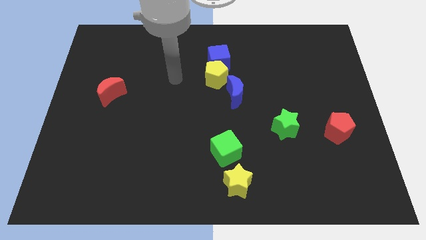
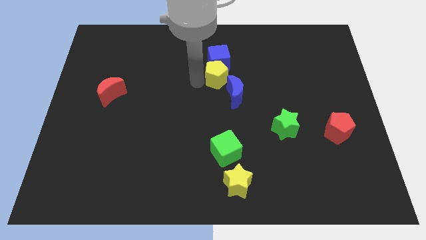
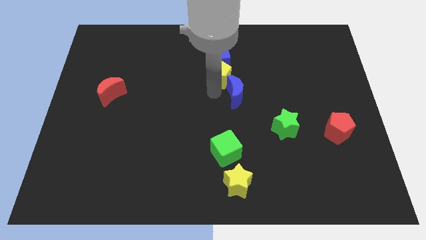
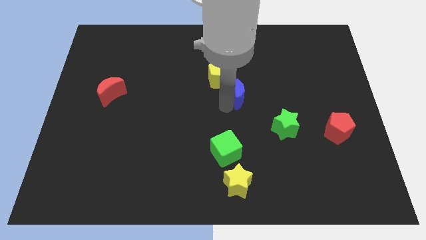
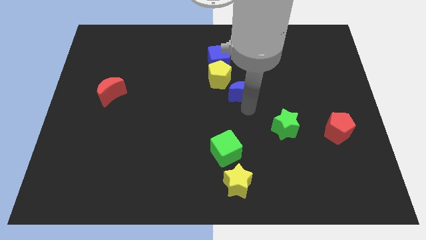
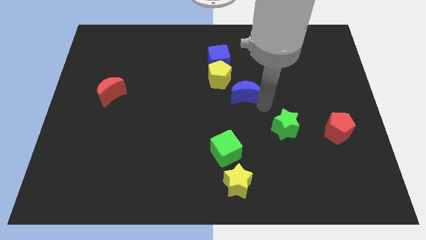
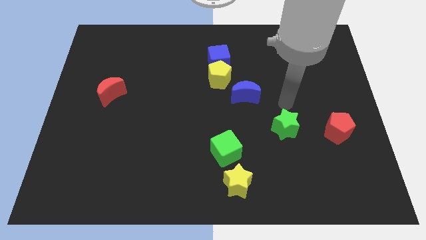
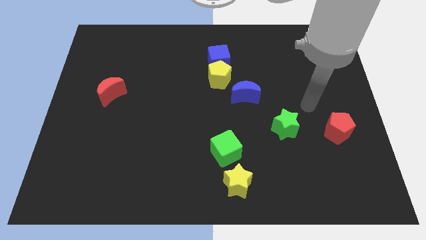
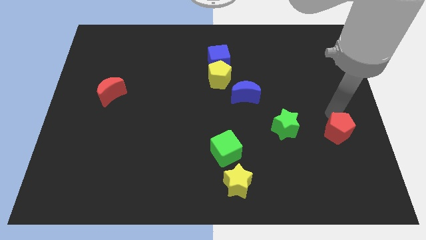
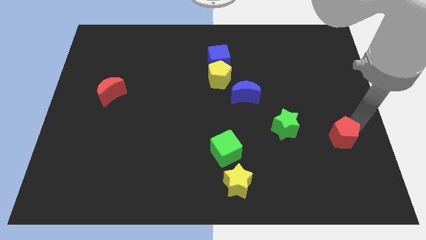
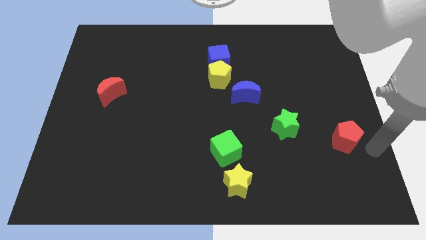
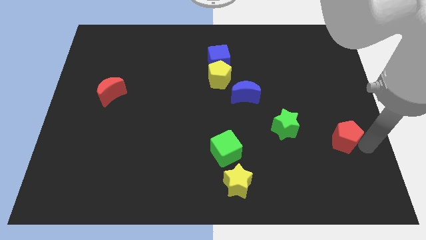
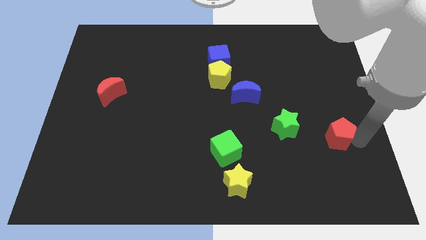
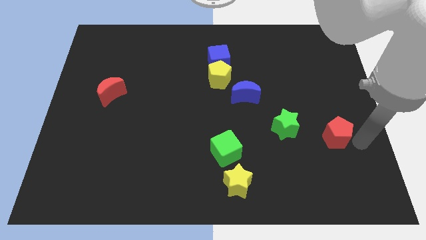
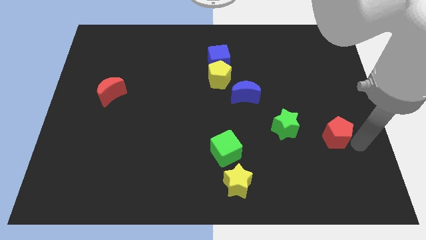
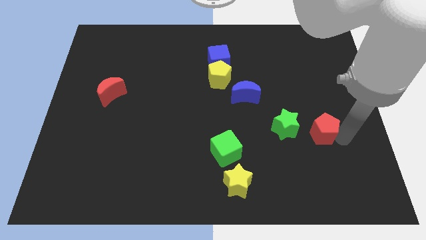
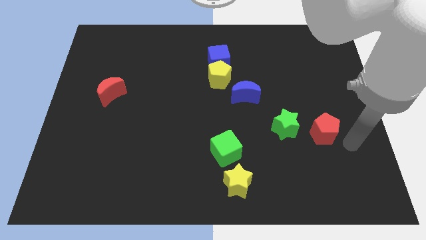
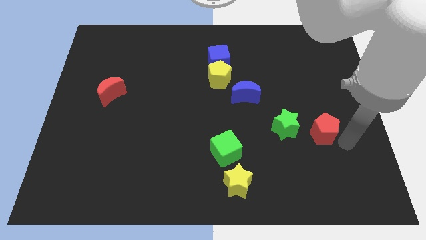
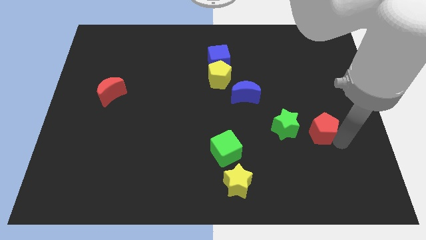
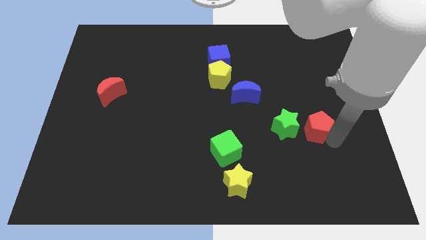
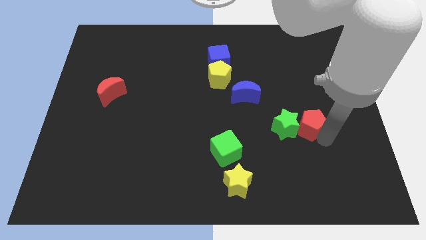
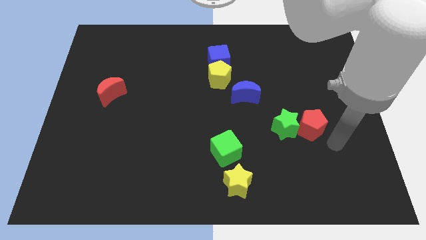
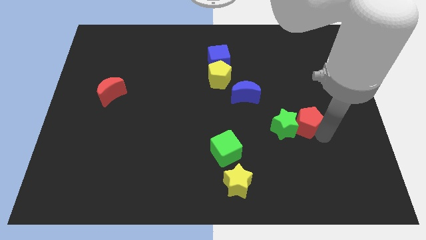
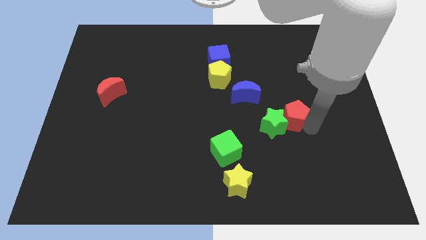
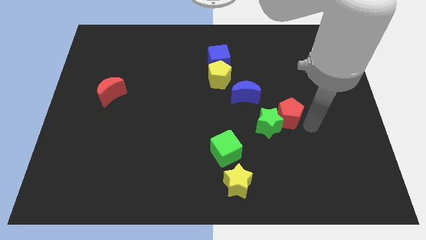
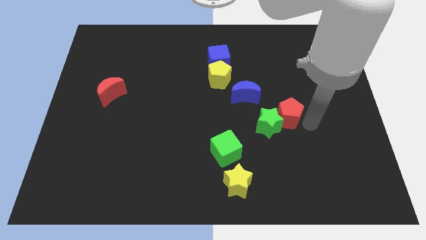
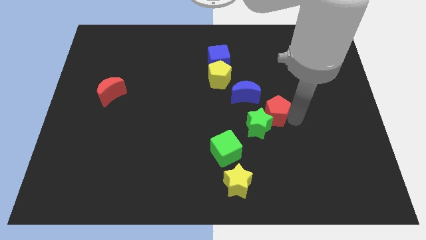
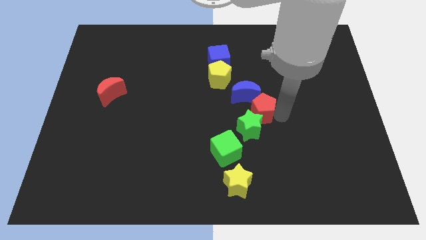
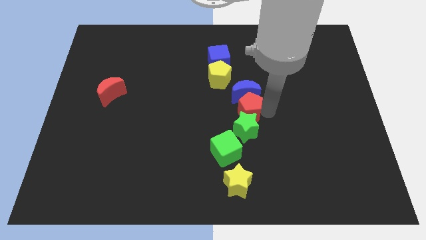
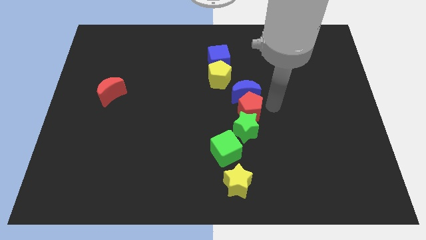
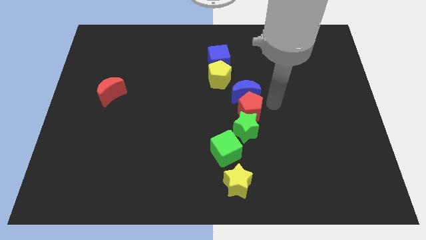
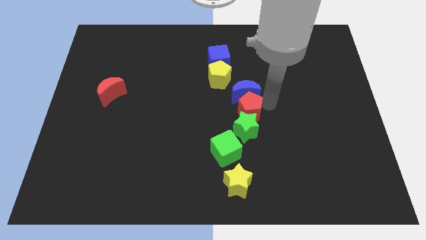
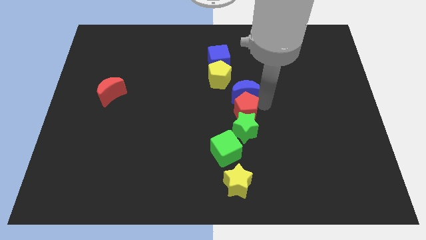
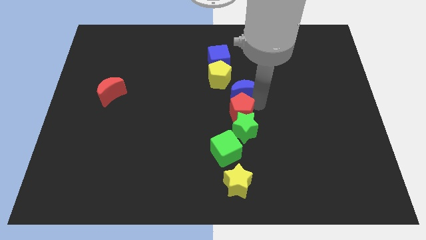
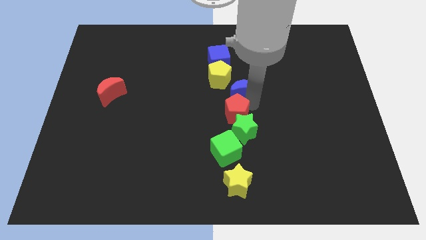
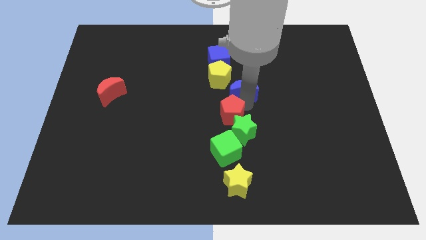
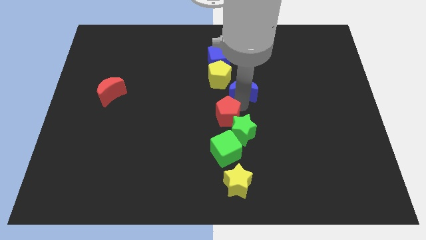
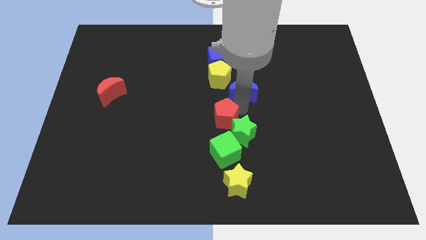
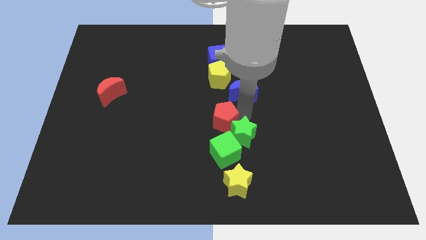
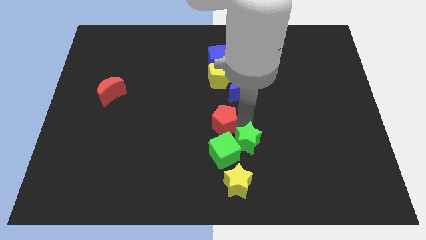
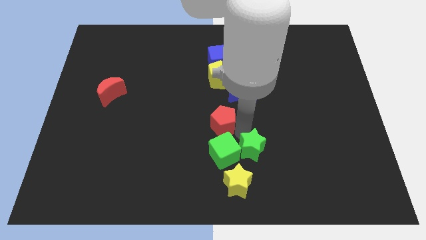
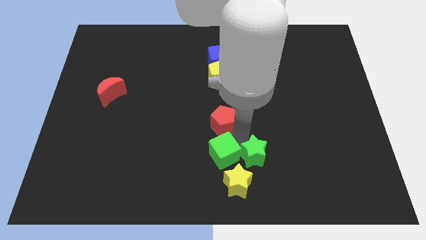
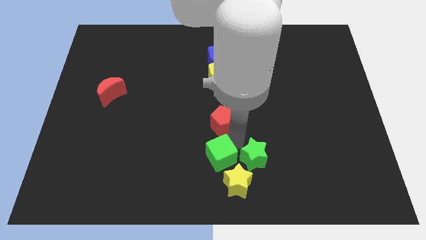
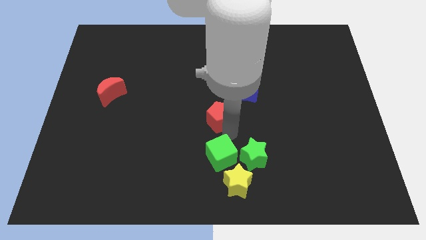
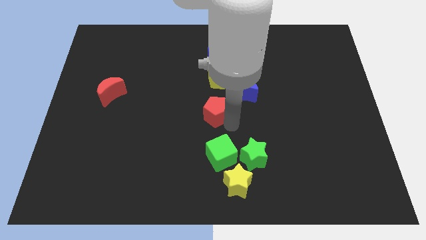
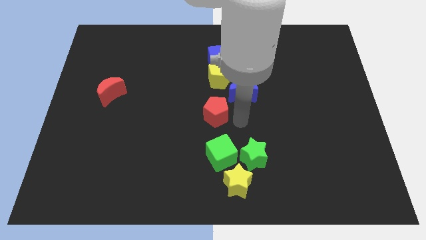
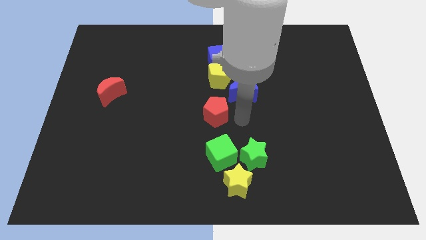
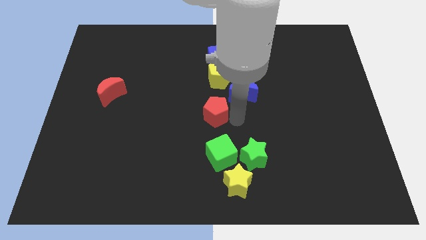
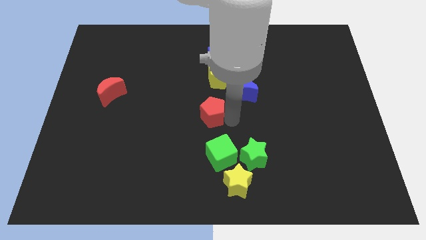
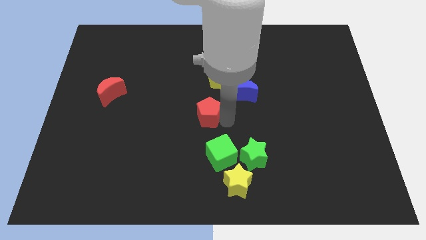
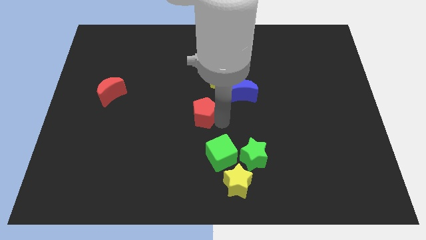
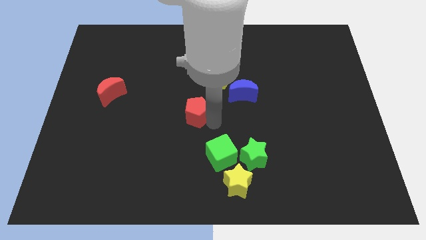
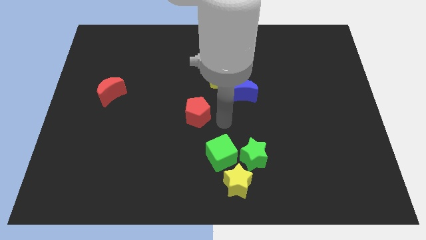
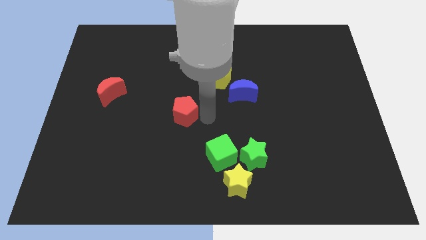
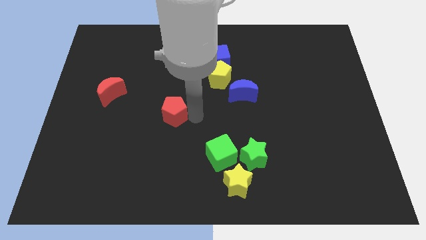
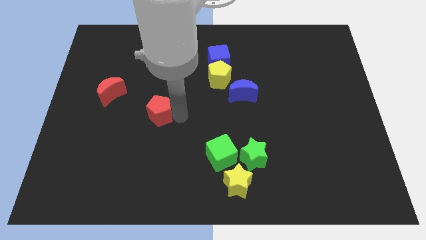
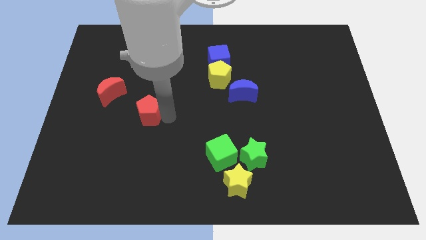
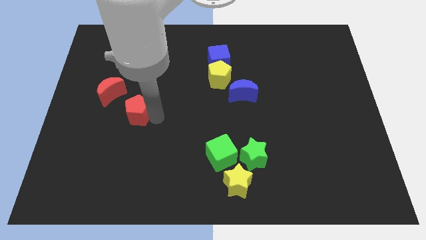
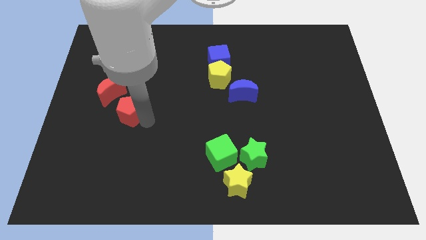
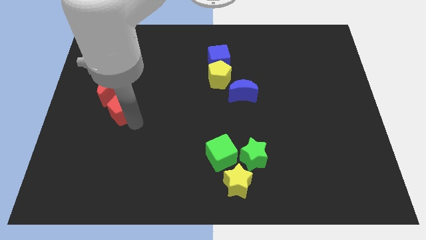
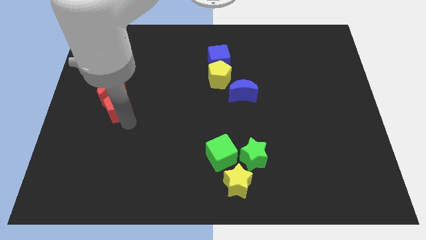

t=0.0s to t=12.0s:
push the red pentagon close to the red moon
